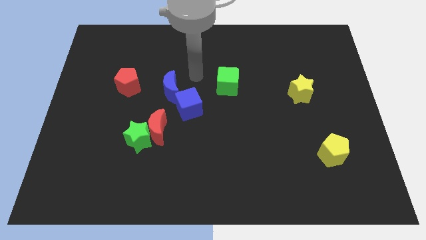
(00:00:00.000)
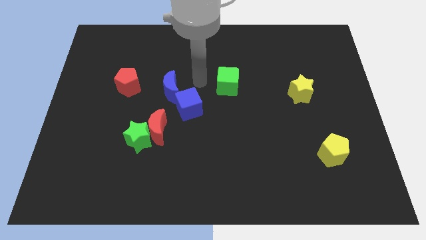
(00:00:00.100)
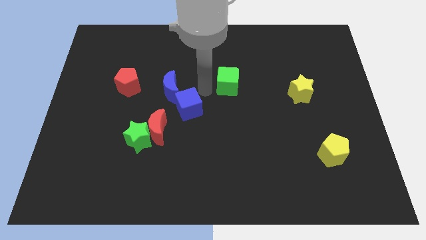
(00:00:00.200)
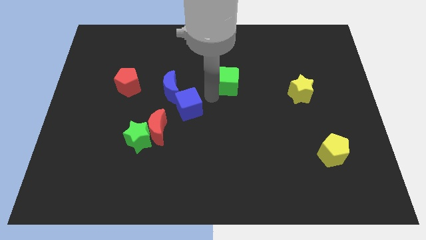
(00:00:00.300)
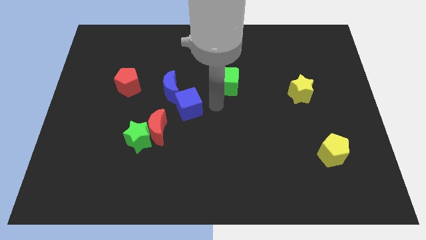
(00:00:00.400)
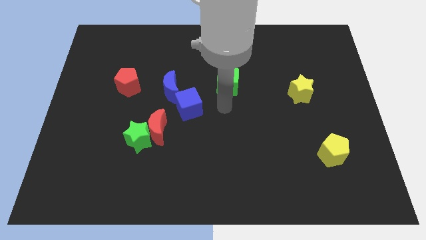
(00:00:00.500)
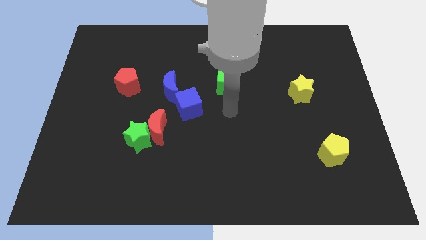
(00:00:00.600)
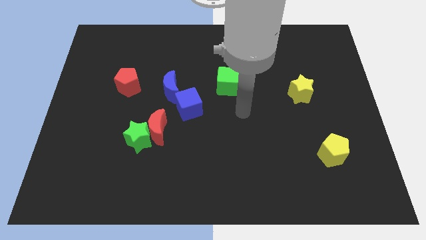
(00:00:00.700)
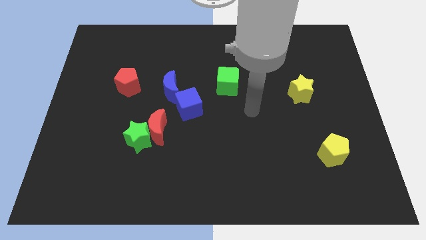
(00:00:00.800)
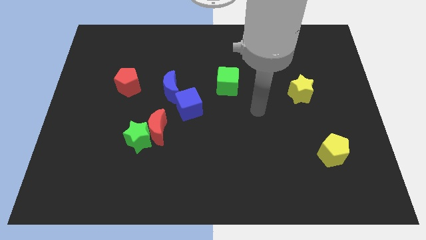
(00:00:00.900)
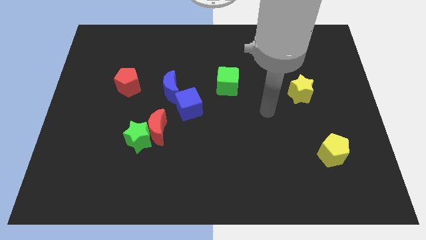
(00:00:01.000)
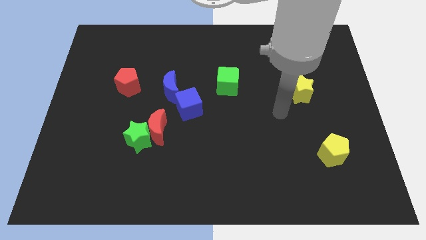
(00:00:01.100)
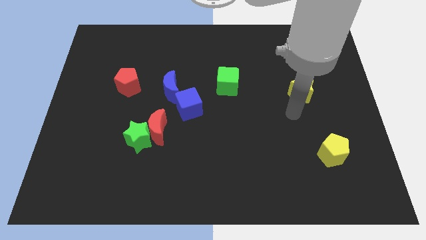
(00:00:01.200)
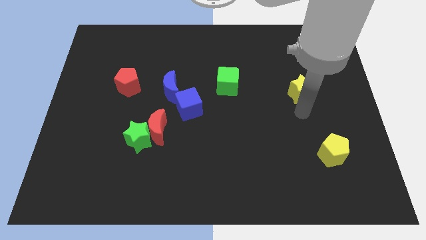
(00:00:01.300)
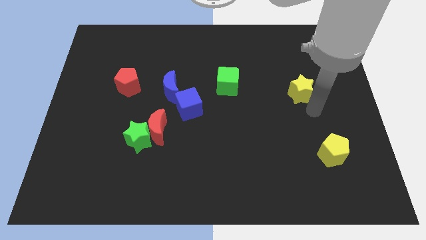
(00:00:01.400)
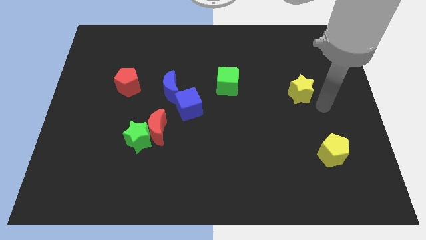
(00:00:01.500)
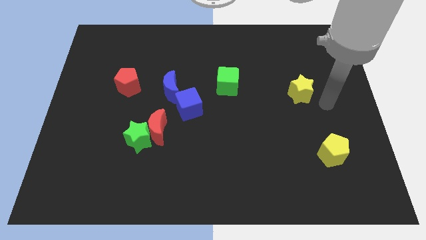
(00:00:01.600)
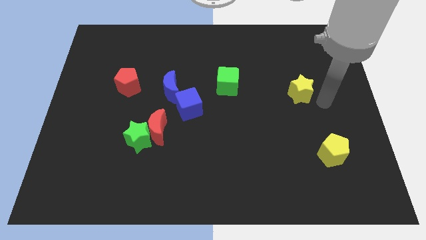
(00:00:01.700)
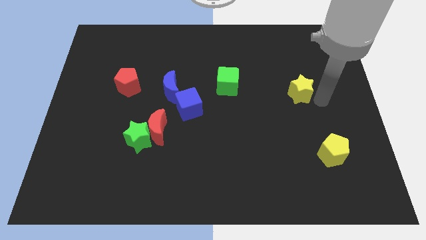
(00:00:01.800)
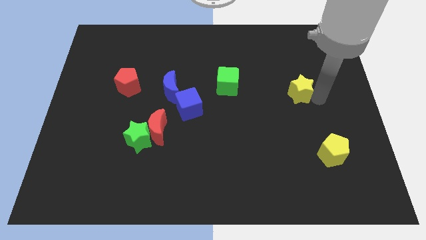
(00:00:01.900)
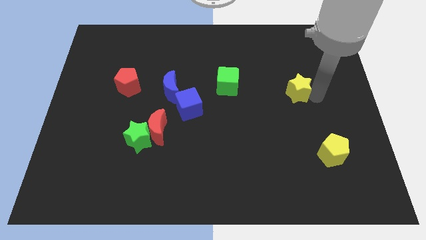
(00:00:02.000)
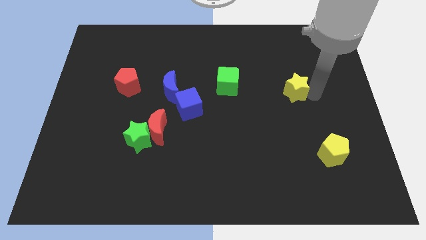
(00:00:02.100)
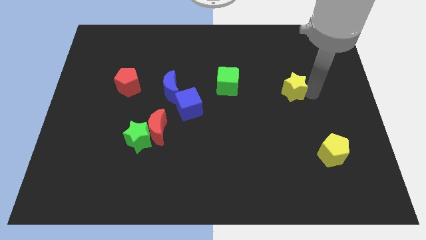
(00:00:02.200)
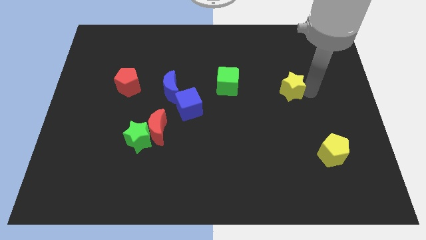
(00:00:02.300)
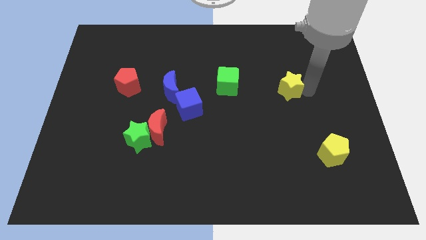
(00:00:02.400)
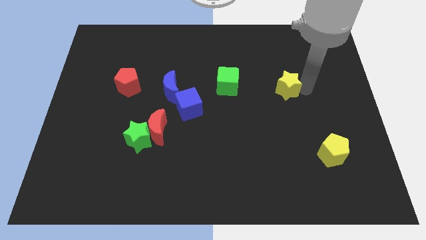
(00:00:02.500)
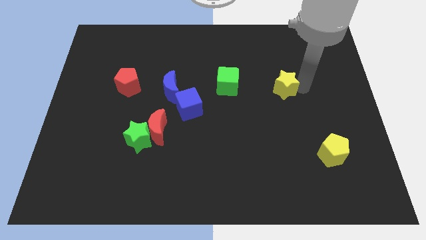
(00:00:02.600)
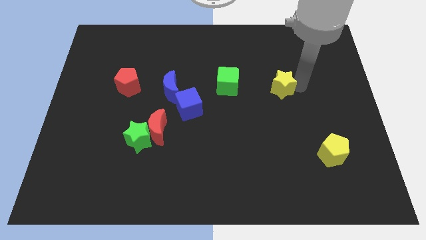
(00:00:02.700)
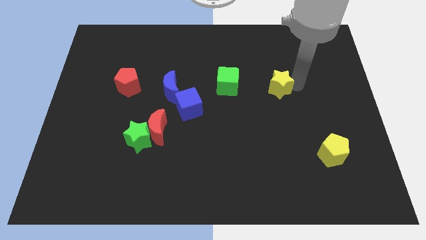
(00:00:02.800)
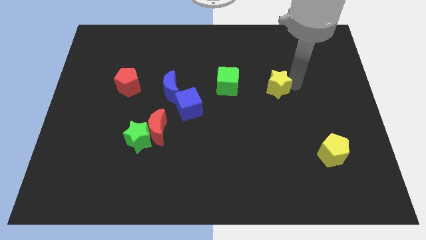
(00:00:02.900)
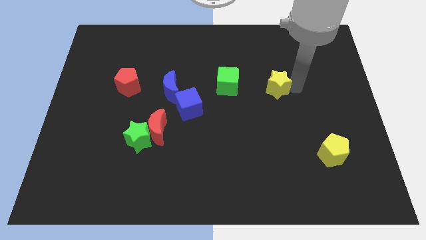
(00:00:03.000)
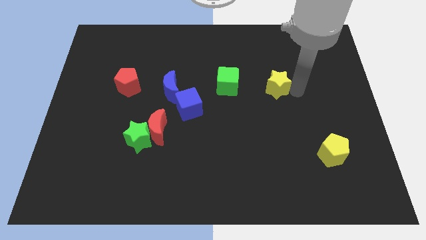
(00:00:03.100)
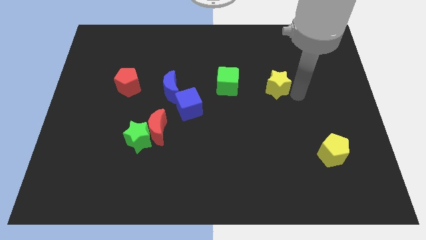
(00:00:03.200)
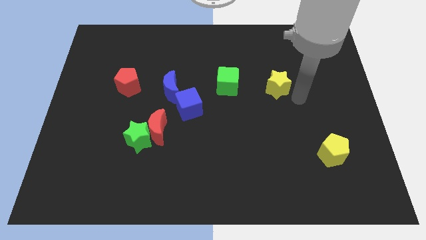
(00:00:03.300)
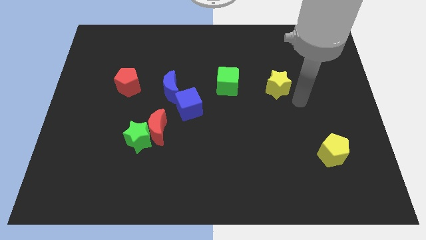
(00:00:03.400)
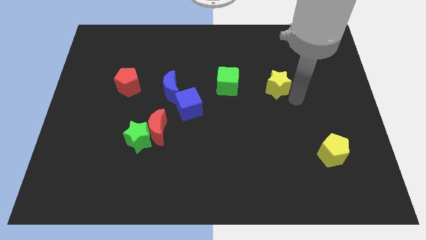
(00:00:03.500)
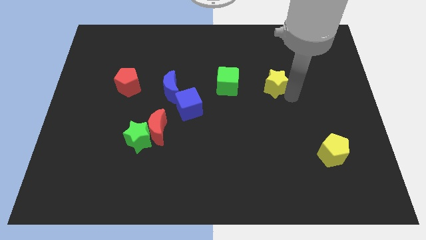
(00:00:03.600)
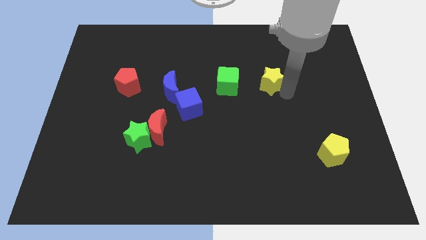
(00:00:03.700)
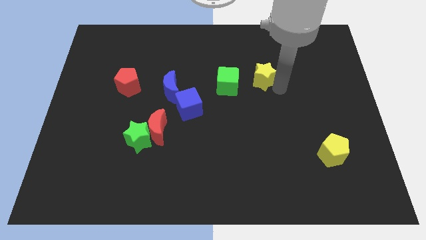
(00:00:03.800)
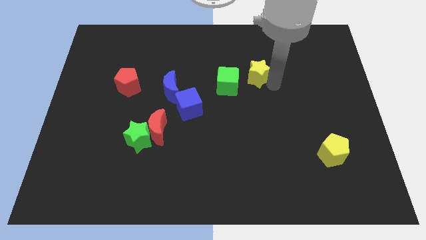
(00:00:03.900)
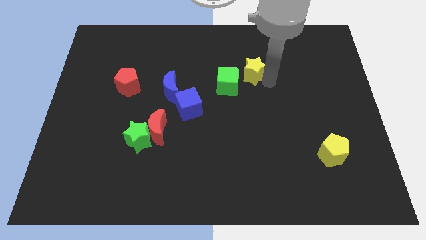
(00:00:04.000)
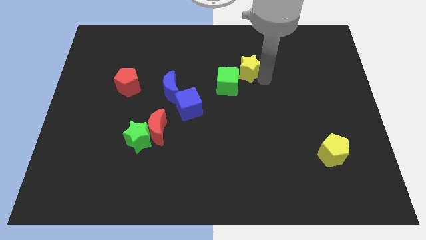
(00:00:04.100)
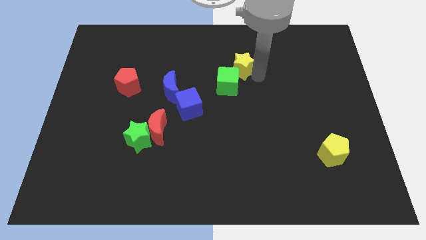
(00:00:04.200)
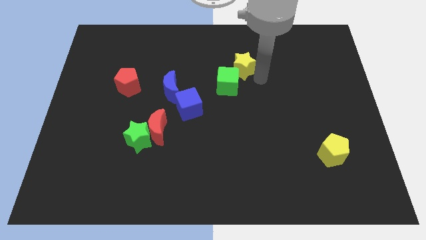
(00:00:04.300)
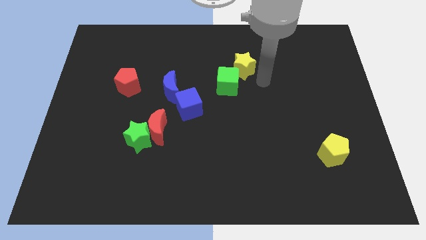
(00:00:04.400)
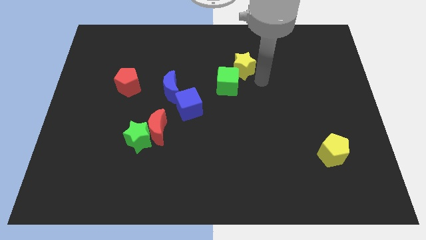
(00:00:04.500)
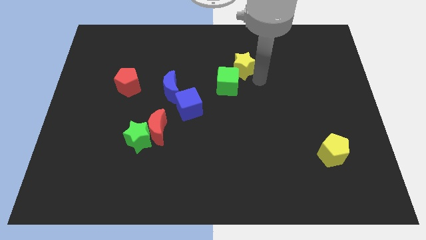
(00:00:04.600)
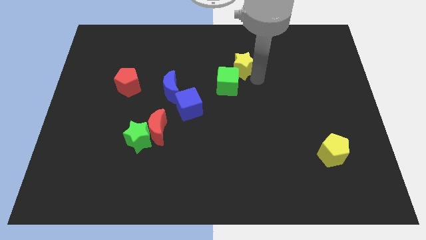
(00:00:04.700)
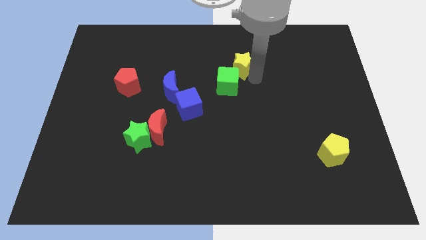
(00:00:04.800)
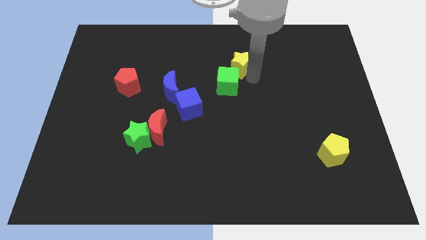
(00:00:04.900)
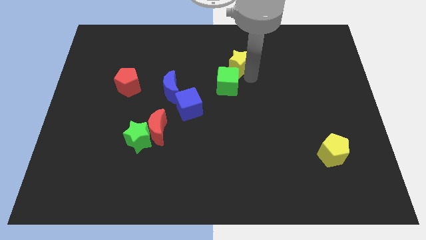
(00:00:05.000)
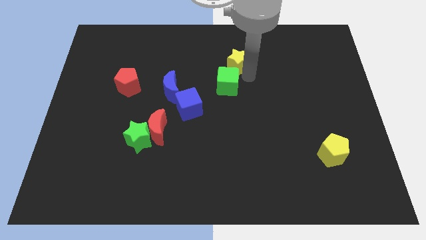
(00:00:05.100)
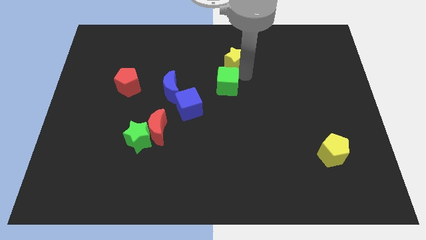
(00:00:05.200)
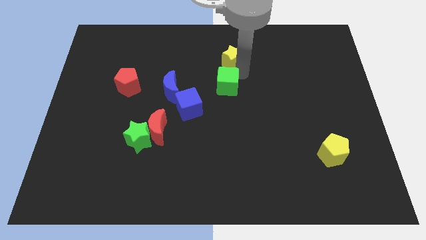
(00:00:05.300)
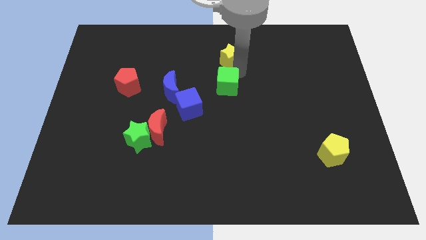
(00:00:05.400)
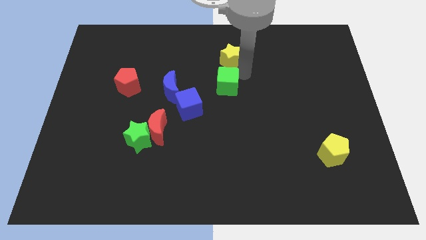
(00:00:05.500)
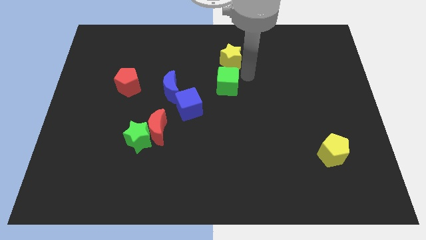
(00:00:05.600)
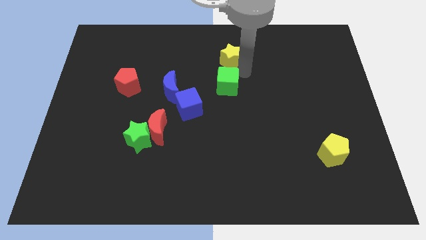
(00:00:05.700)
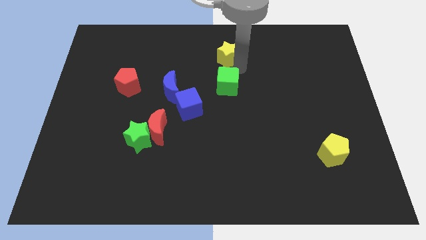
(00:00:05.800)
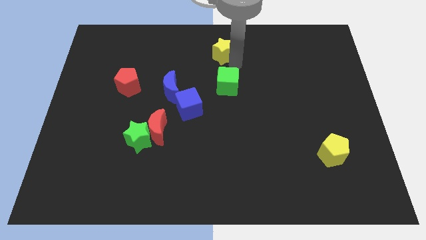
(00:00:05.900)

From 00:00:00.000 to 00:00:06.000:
slide the yellow star to the towards your base

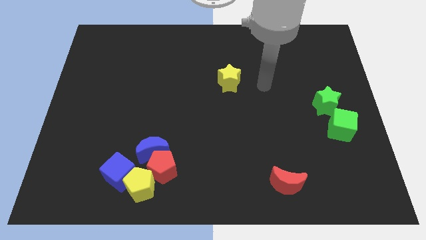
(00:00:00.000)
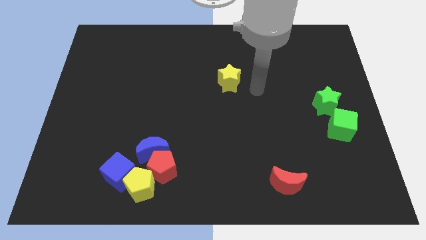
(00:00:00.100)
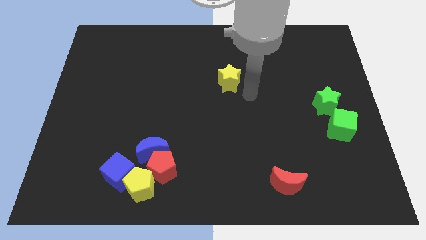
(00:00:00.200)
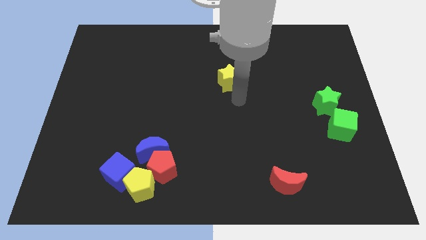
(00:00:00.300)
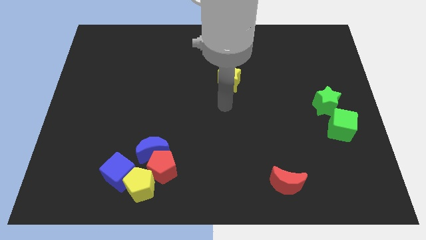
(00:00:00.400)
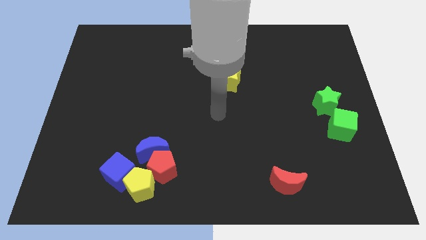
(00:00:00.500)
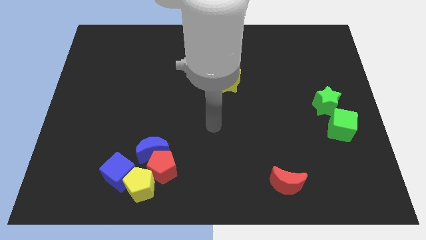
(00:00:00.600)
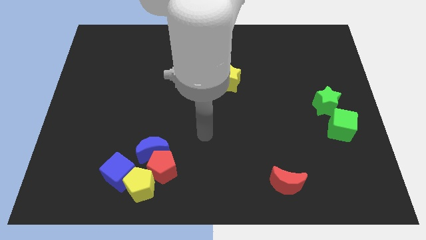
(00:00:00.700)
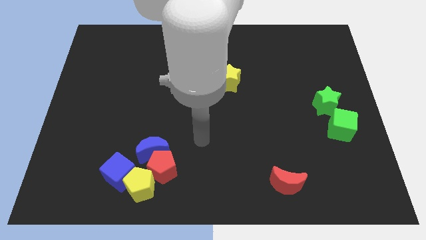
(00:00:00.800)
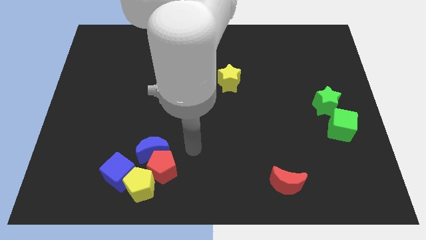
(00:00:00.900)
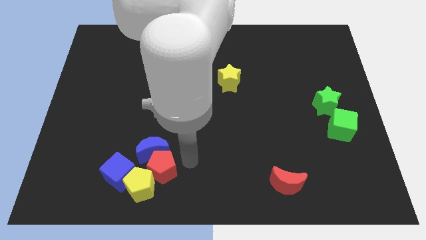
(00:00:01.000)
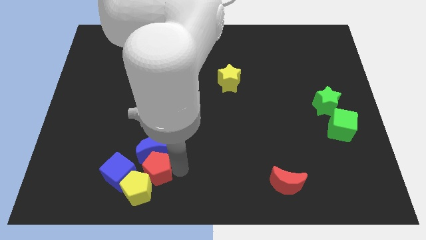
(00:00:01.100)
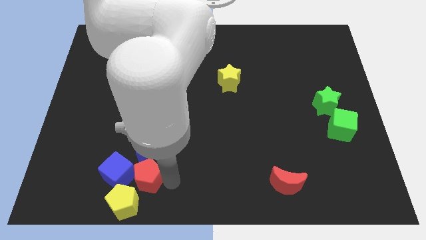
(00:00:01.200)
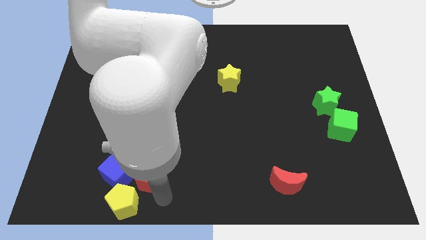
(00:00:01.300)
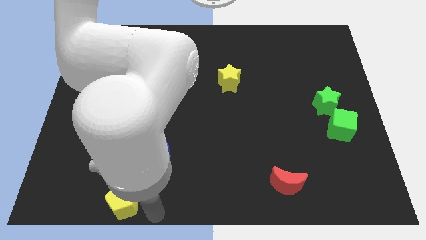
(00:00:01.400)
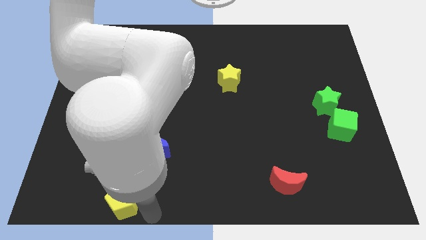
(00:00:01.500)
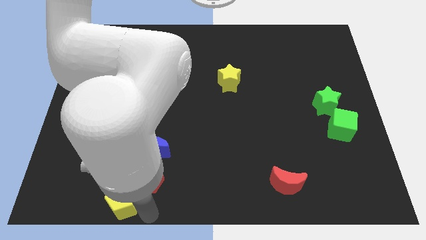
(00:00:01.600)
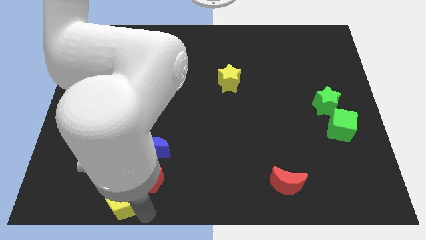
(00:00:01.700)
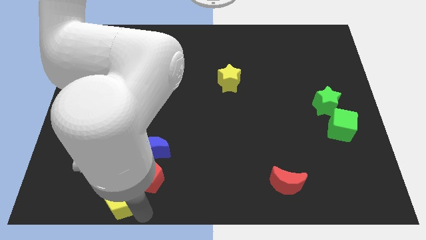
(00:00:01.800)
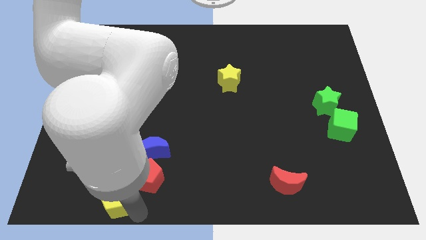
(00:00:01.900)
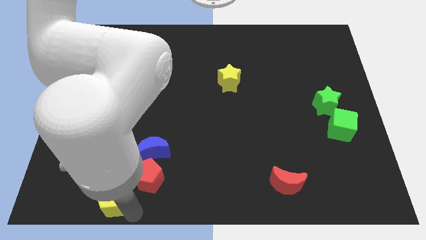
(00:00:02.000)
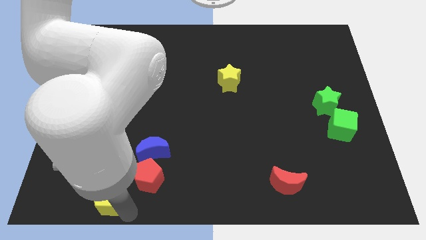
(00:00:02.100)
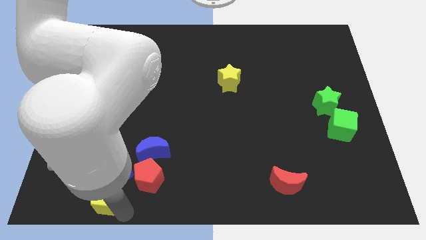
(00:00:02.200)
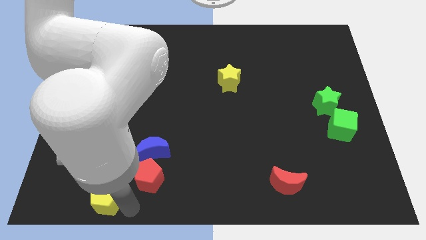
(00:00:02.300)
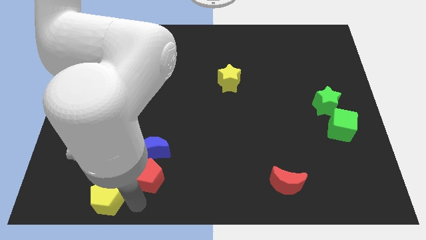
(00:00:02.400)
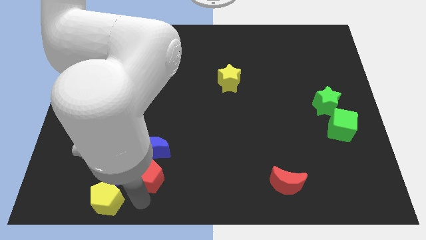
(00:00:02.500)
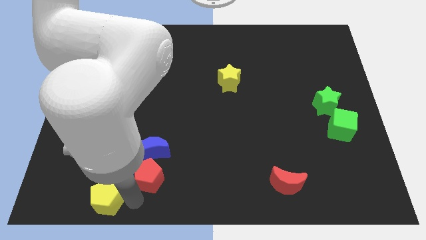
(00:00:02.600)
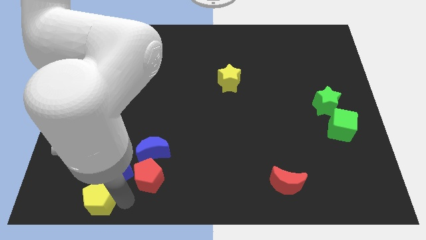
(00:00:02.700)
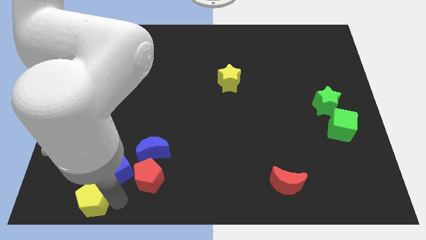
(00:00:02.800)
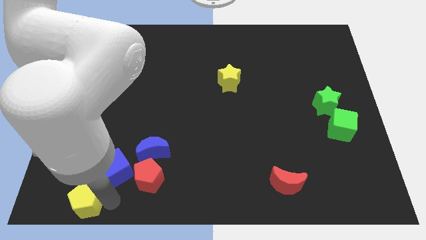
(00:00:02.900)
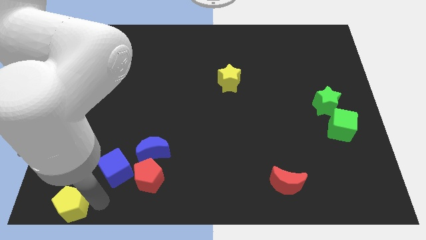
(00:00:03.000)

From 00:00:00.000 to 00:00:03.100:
move the yellow pentagon to the bottom left corner
